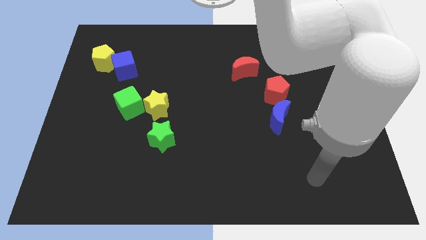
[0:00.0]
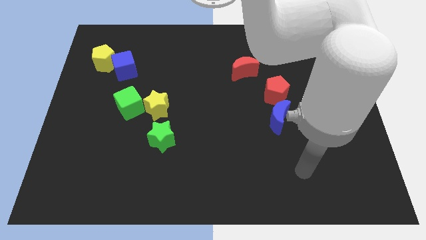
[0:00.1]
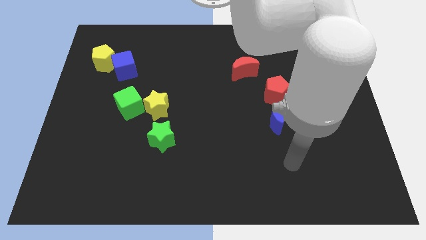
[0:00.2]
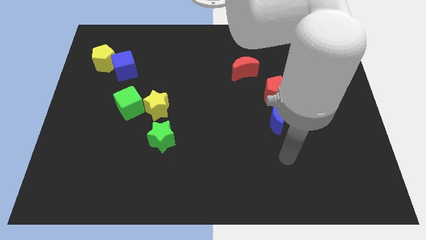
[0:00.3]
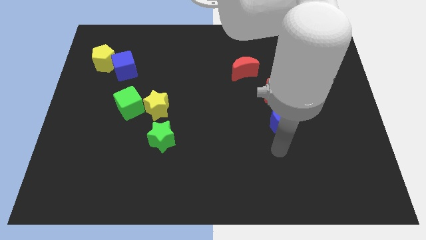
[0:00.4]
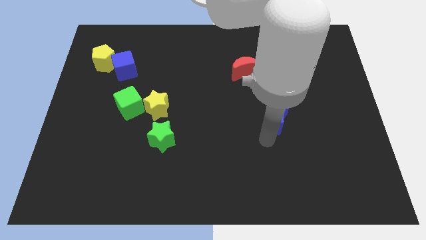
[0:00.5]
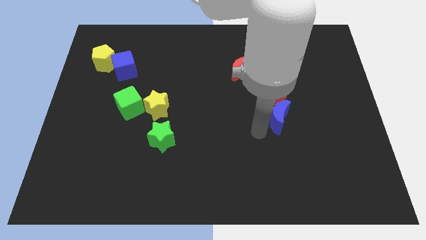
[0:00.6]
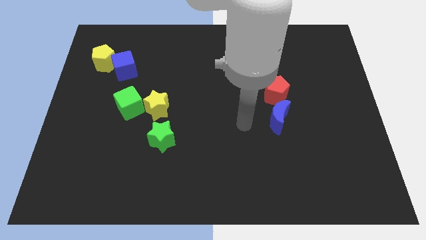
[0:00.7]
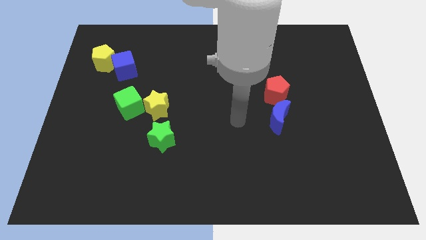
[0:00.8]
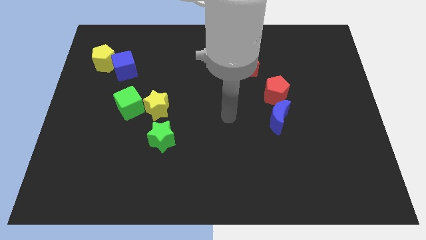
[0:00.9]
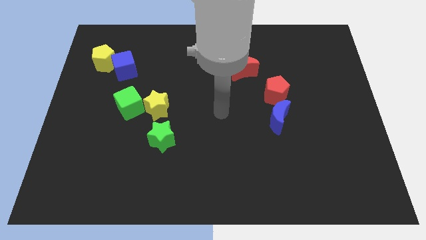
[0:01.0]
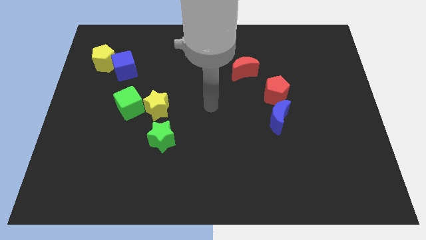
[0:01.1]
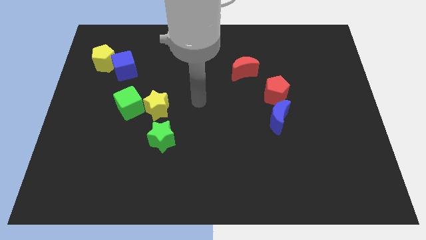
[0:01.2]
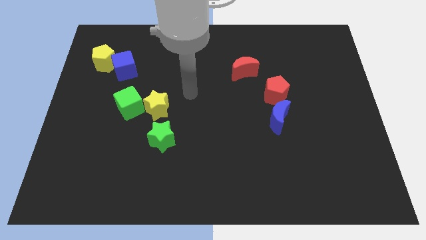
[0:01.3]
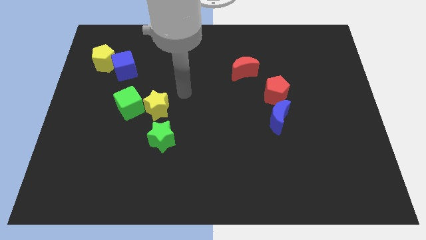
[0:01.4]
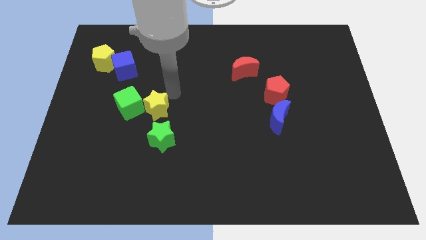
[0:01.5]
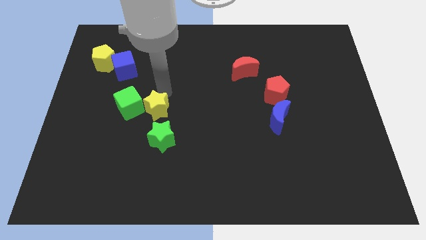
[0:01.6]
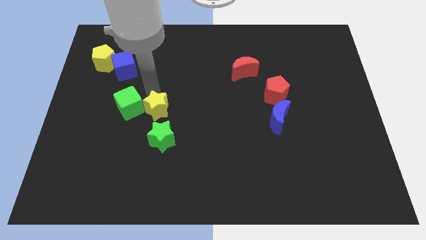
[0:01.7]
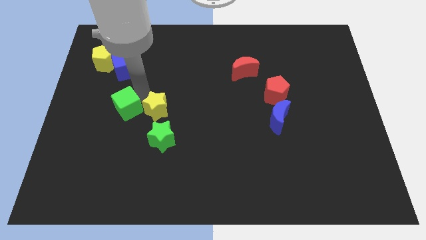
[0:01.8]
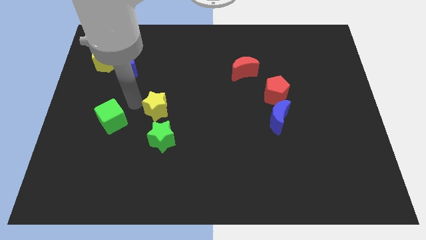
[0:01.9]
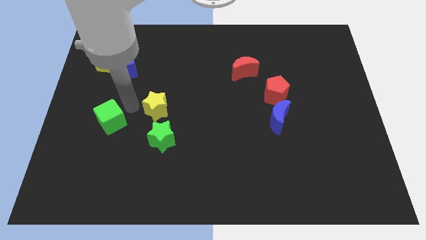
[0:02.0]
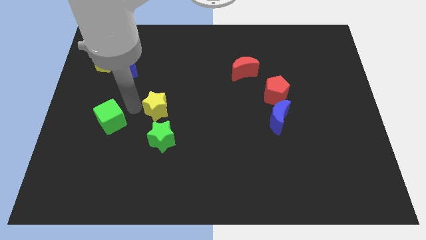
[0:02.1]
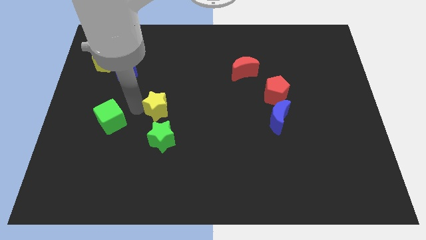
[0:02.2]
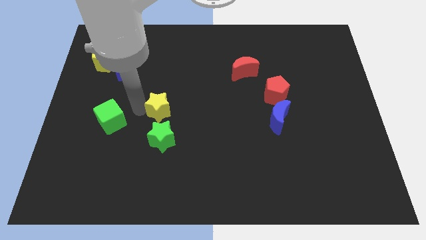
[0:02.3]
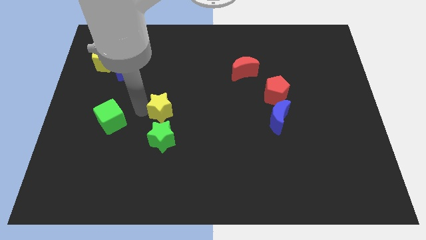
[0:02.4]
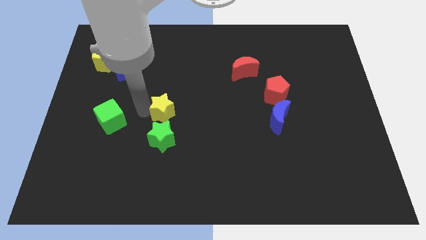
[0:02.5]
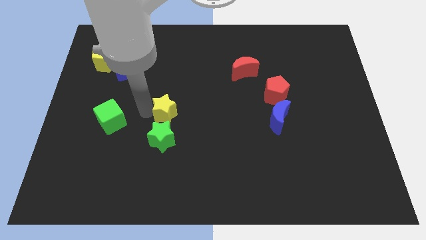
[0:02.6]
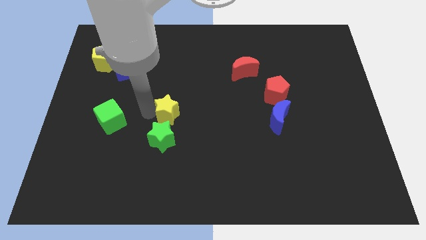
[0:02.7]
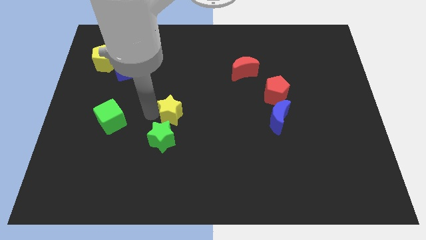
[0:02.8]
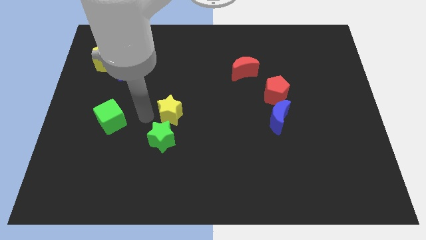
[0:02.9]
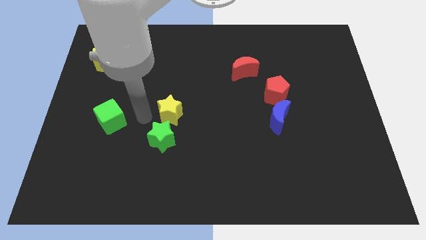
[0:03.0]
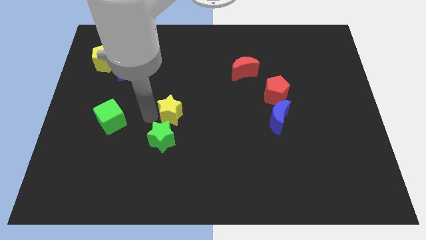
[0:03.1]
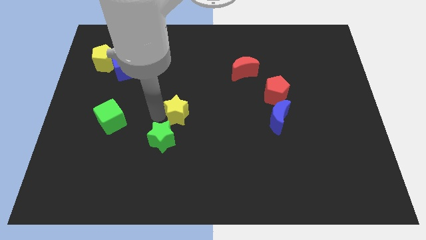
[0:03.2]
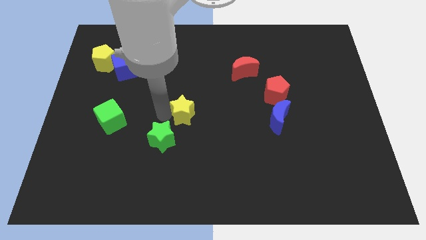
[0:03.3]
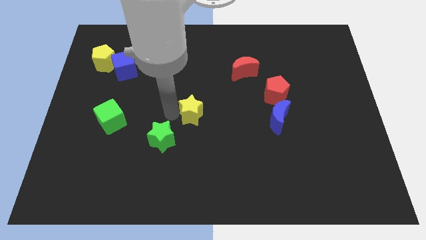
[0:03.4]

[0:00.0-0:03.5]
slightly move the yellow star to the right

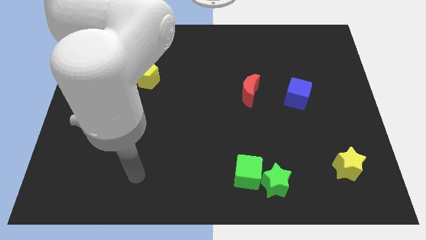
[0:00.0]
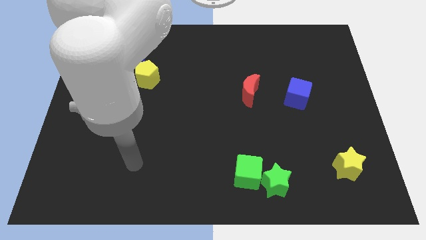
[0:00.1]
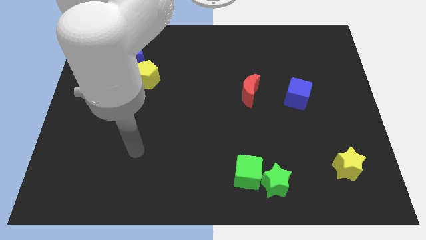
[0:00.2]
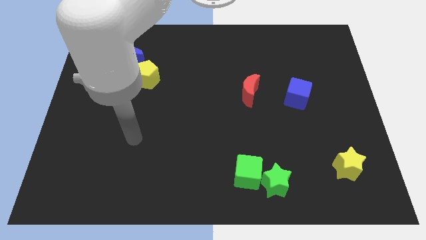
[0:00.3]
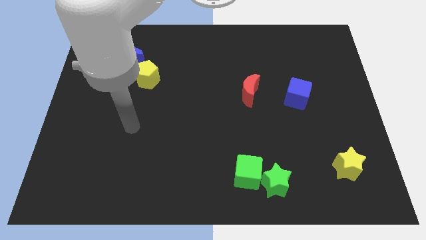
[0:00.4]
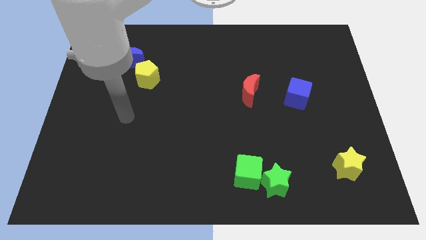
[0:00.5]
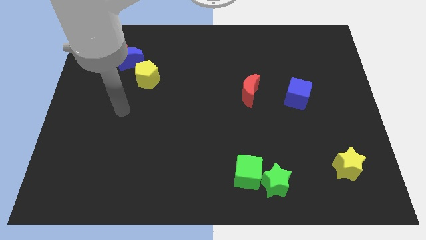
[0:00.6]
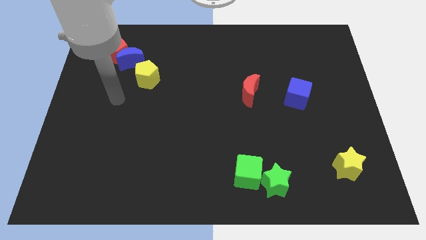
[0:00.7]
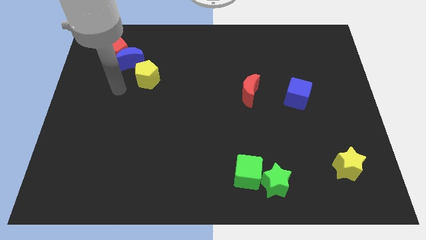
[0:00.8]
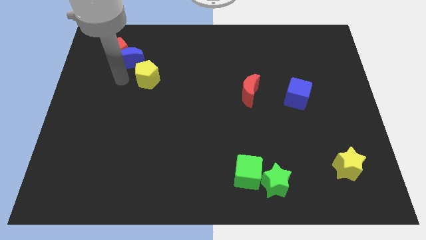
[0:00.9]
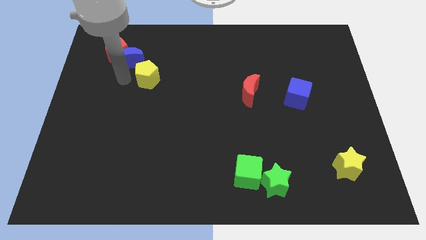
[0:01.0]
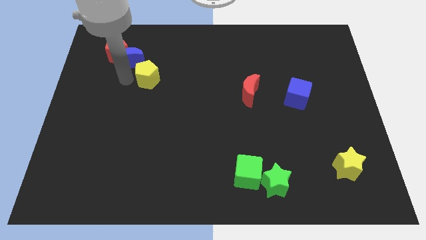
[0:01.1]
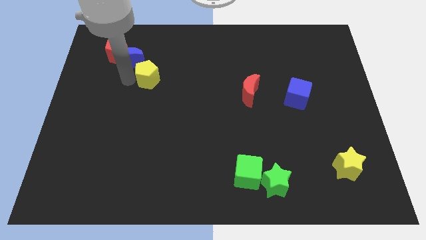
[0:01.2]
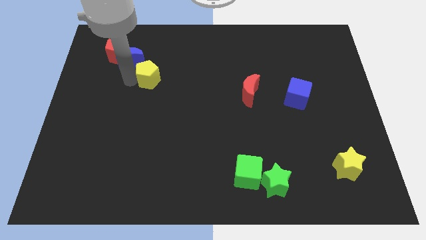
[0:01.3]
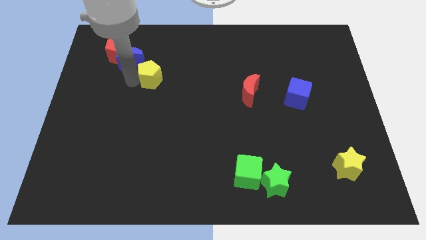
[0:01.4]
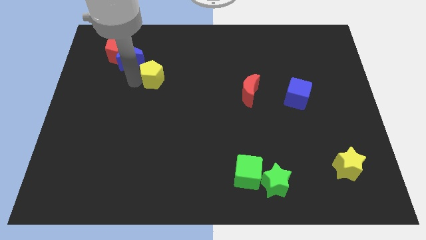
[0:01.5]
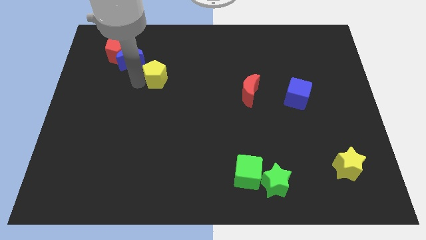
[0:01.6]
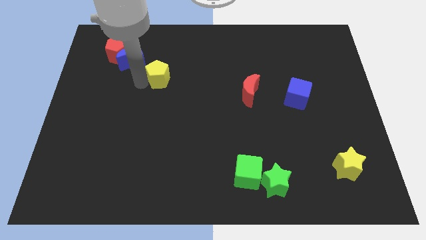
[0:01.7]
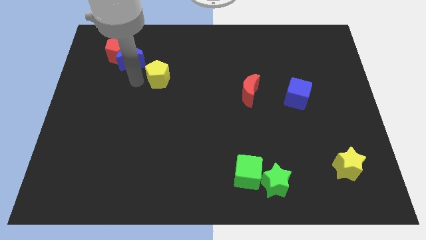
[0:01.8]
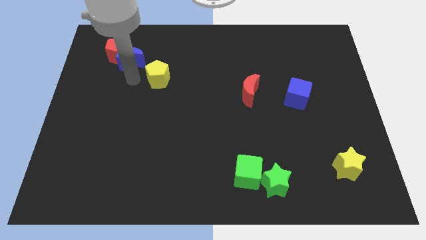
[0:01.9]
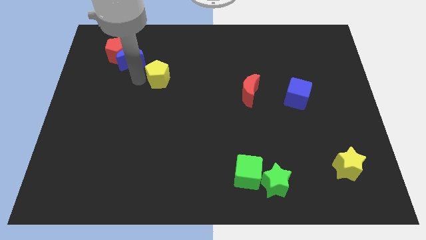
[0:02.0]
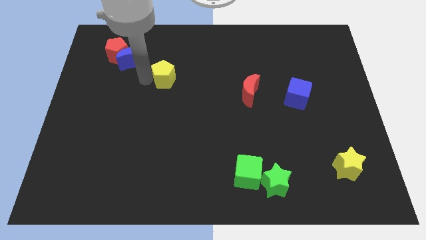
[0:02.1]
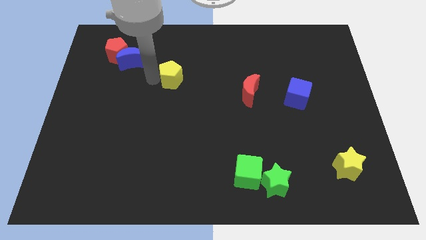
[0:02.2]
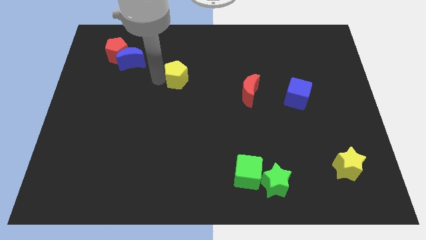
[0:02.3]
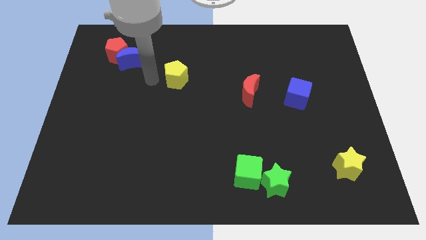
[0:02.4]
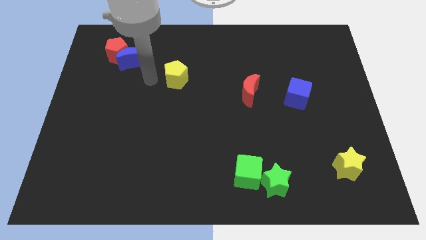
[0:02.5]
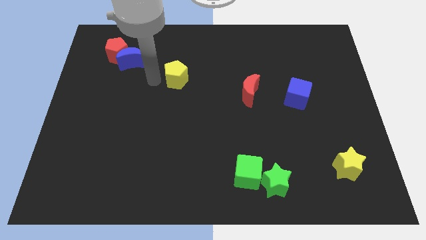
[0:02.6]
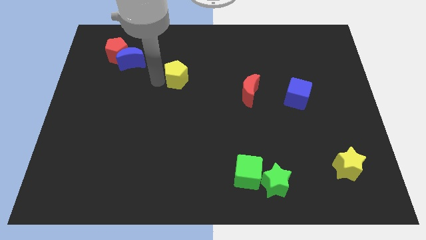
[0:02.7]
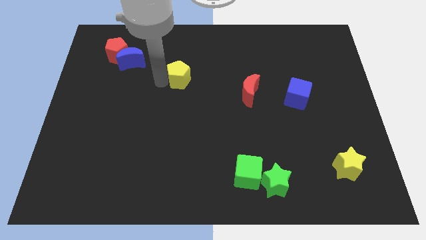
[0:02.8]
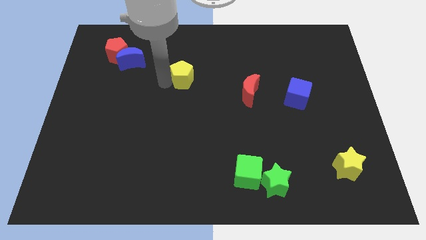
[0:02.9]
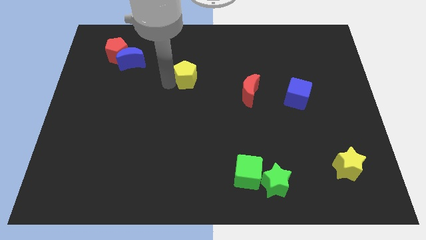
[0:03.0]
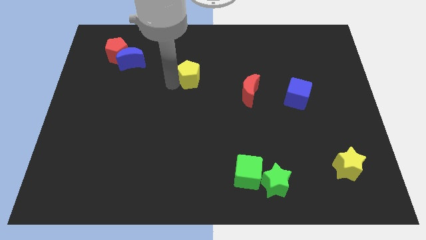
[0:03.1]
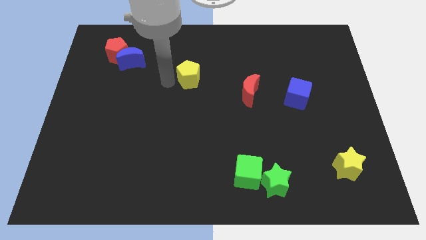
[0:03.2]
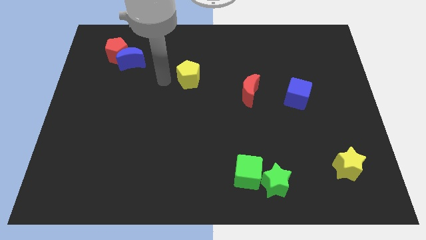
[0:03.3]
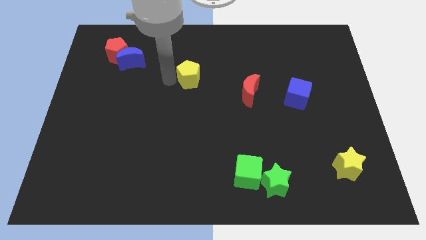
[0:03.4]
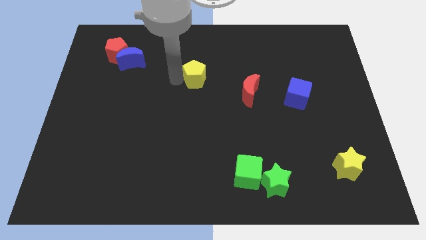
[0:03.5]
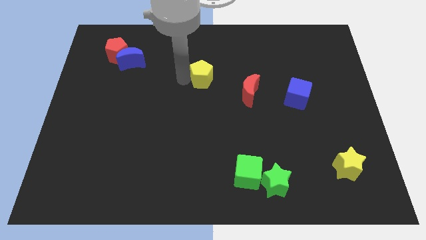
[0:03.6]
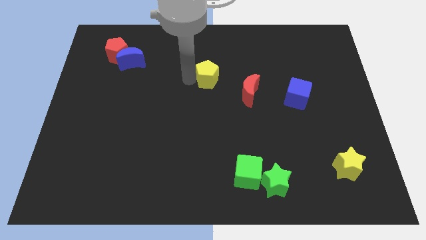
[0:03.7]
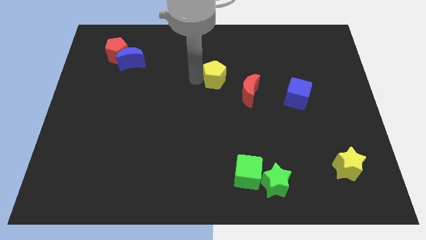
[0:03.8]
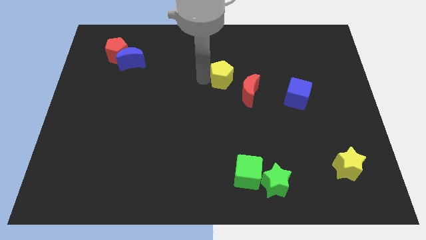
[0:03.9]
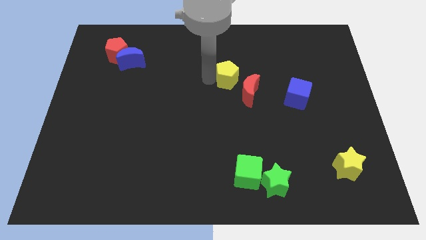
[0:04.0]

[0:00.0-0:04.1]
push the yellow pentagon to the right

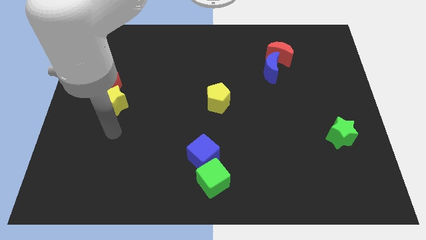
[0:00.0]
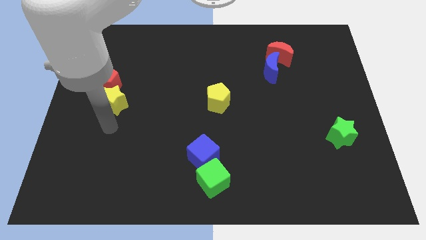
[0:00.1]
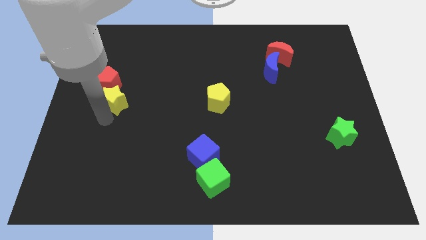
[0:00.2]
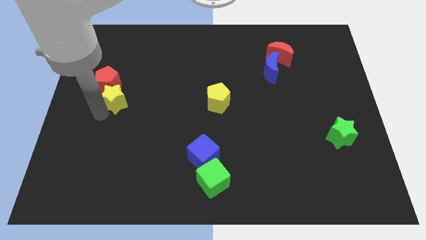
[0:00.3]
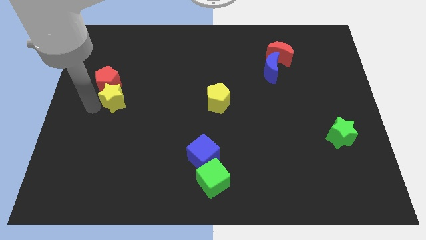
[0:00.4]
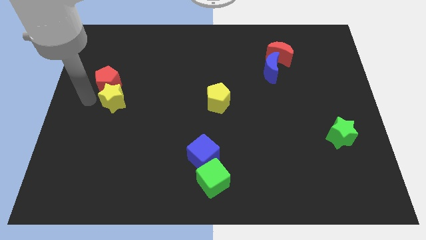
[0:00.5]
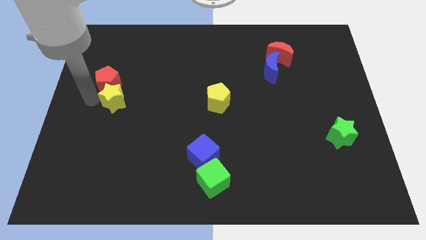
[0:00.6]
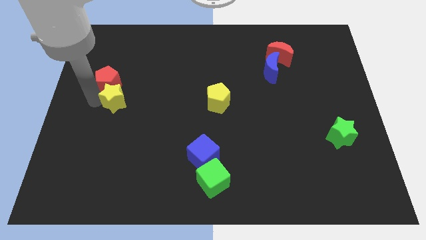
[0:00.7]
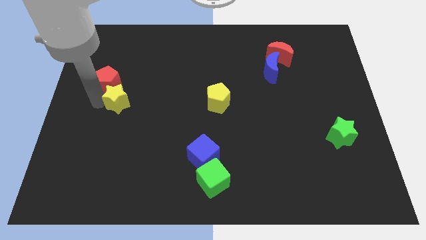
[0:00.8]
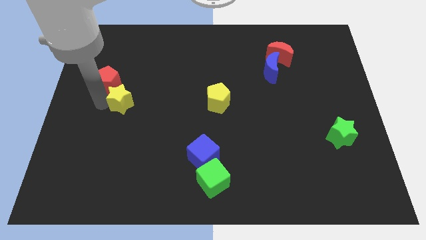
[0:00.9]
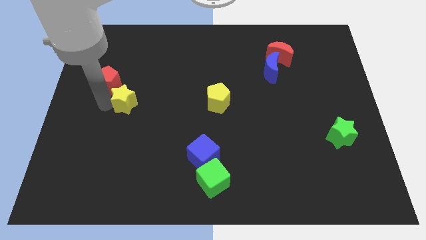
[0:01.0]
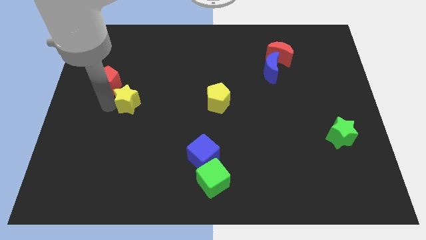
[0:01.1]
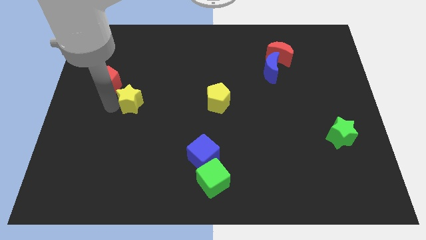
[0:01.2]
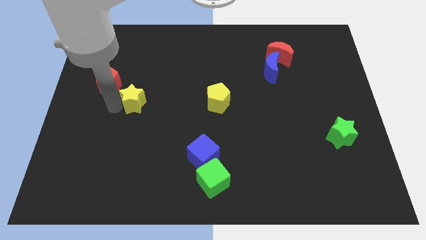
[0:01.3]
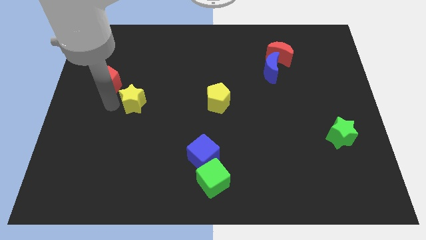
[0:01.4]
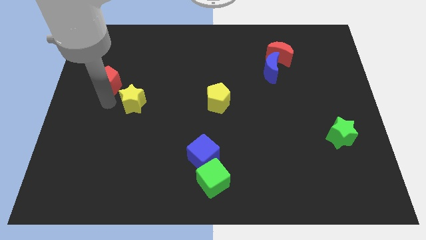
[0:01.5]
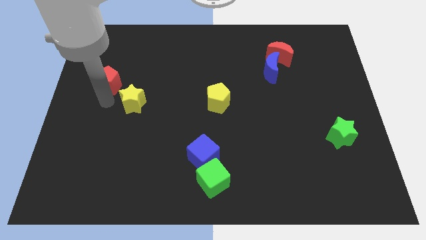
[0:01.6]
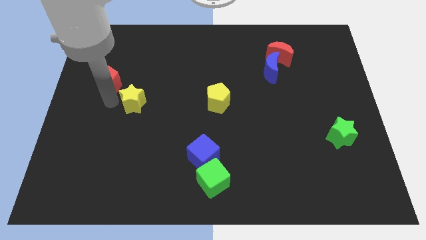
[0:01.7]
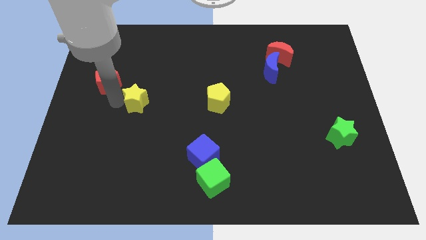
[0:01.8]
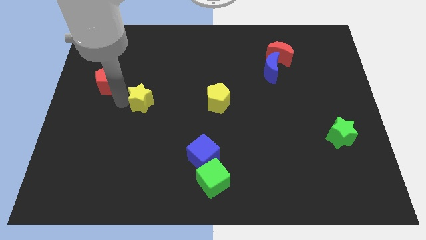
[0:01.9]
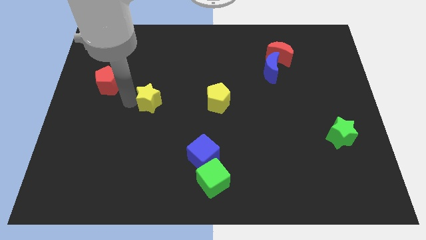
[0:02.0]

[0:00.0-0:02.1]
move the yellow star to the right slightly
